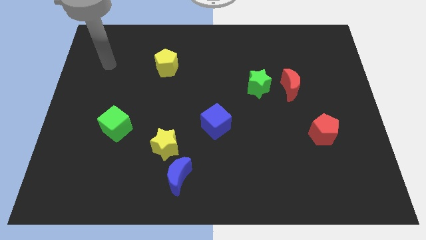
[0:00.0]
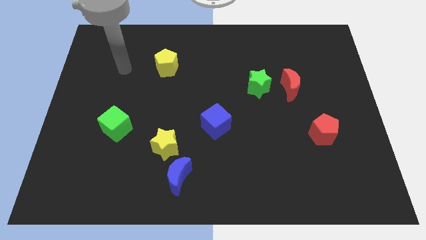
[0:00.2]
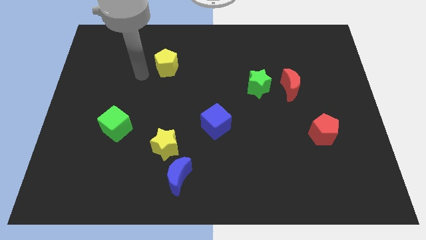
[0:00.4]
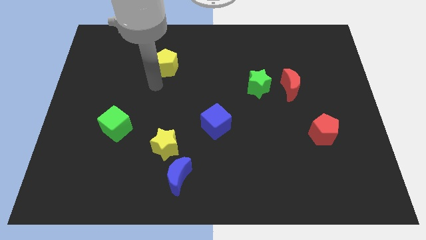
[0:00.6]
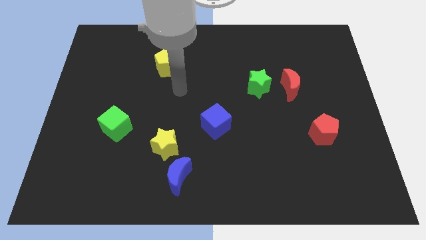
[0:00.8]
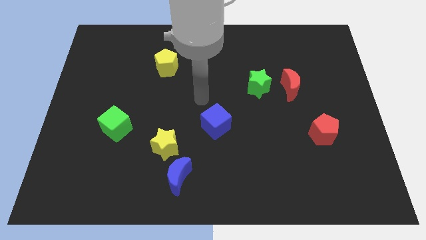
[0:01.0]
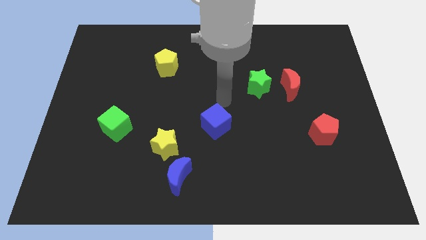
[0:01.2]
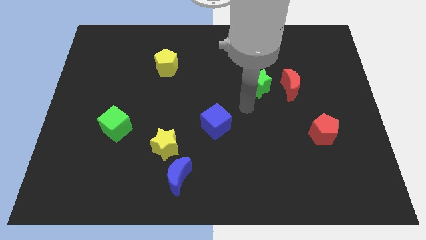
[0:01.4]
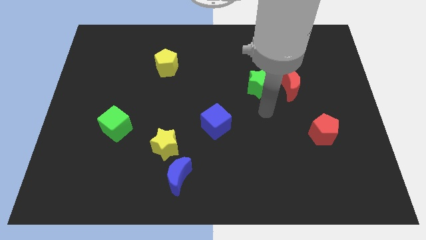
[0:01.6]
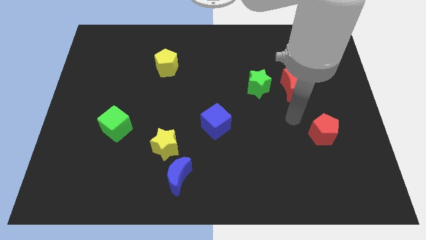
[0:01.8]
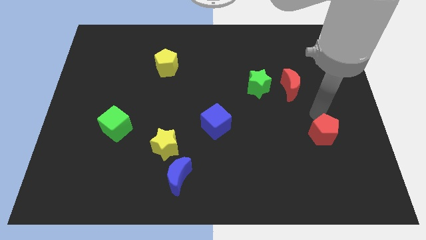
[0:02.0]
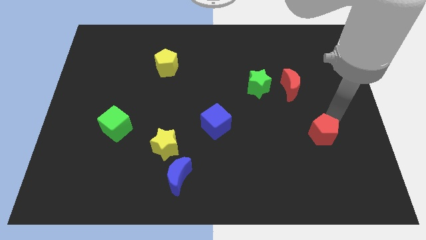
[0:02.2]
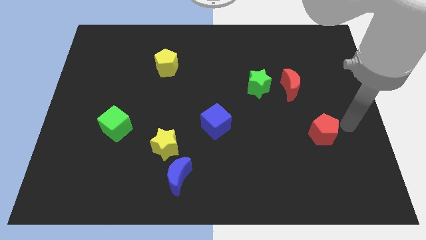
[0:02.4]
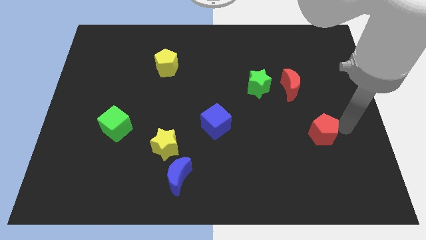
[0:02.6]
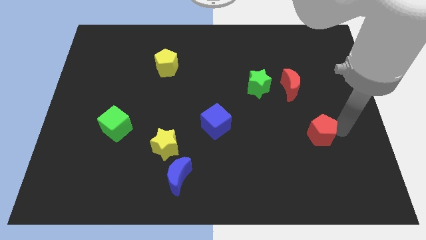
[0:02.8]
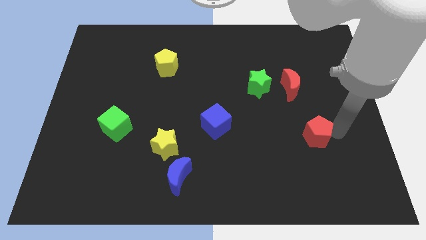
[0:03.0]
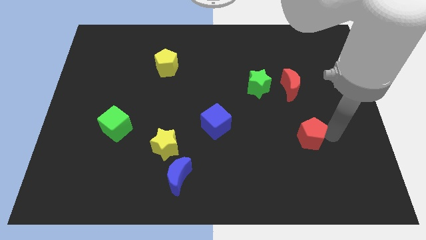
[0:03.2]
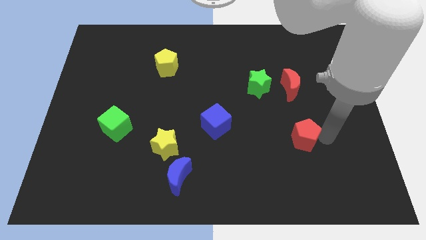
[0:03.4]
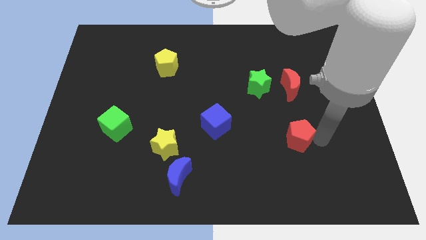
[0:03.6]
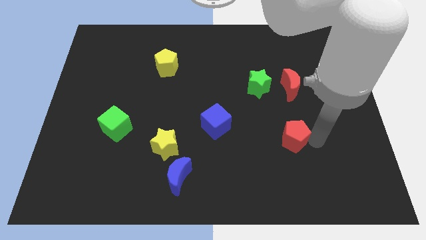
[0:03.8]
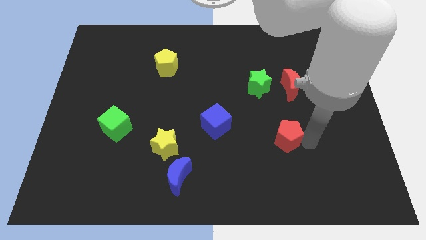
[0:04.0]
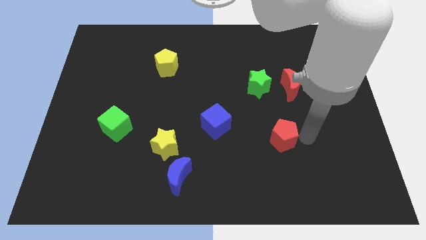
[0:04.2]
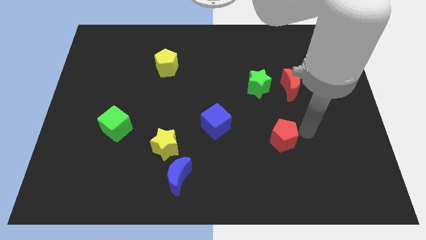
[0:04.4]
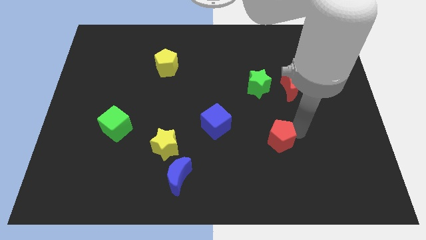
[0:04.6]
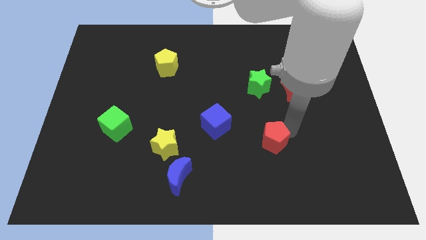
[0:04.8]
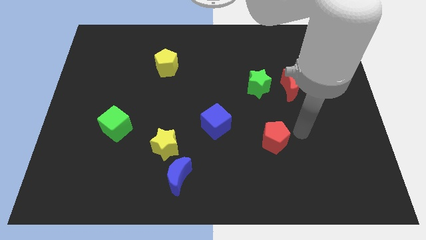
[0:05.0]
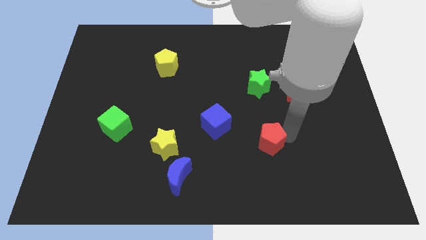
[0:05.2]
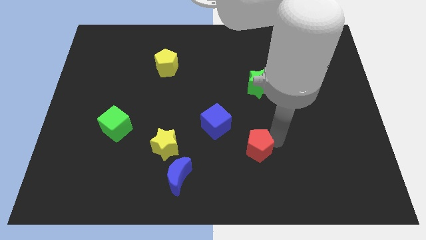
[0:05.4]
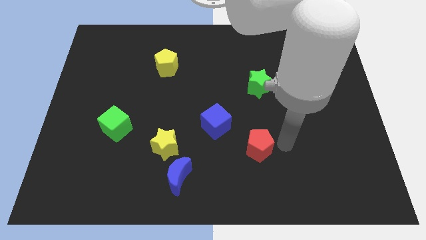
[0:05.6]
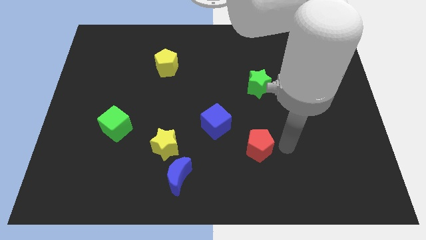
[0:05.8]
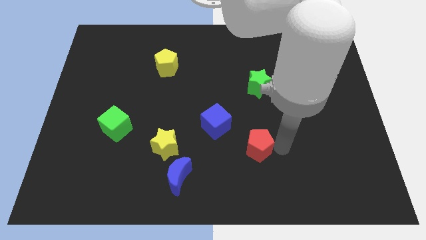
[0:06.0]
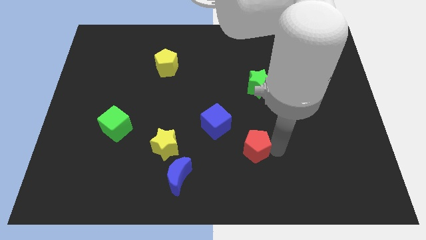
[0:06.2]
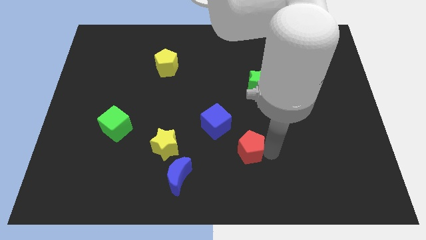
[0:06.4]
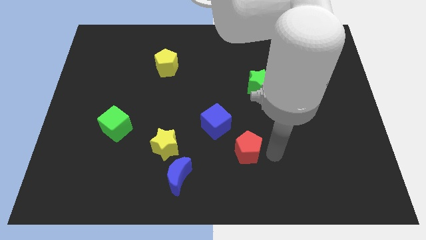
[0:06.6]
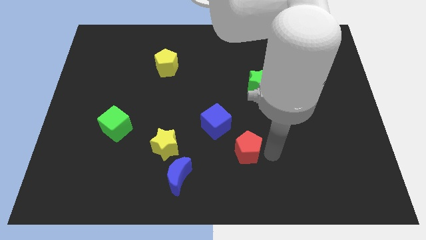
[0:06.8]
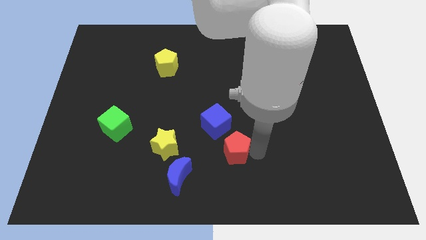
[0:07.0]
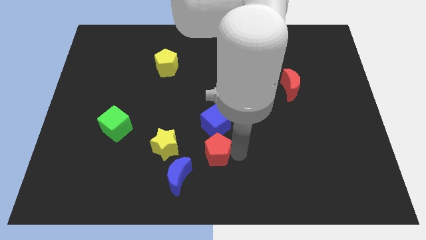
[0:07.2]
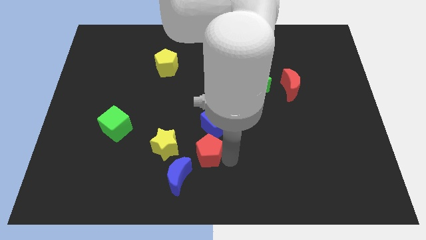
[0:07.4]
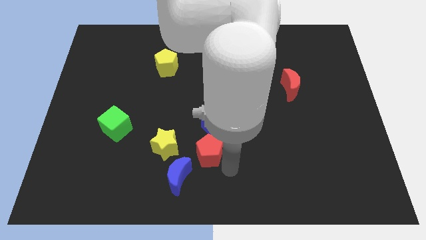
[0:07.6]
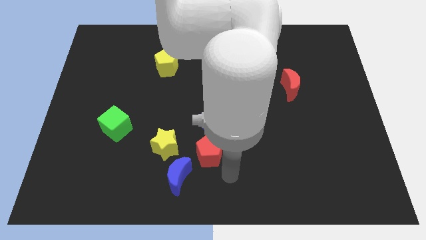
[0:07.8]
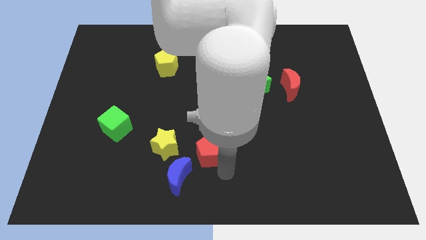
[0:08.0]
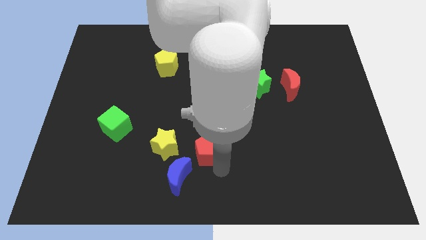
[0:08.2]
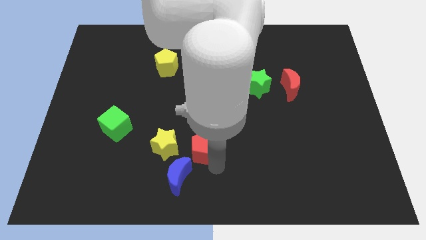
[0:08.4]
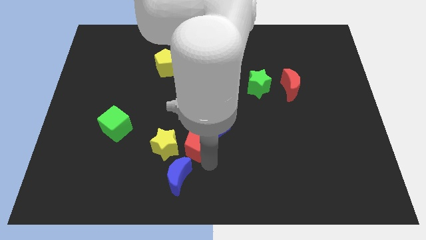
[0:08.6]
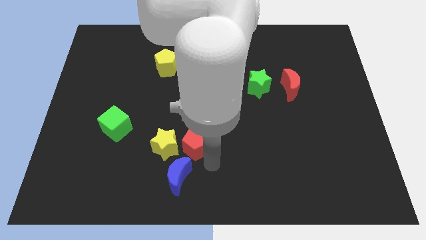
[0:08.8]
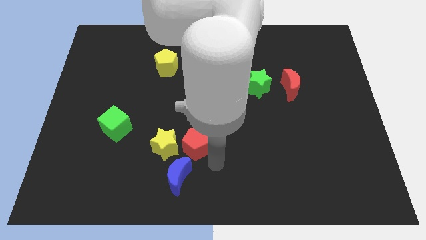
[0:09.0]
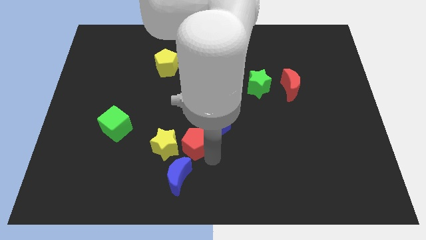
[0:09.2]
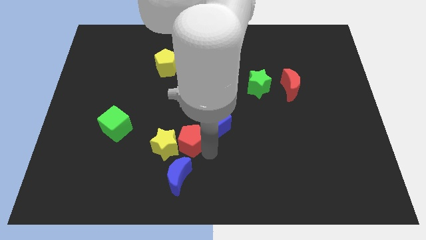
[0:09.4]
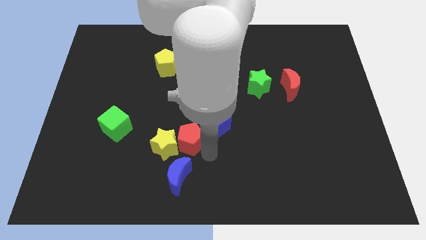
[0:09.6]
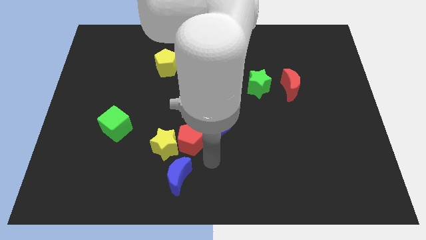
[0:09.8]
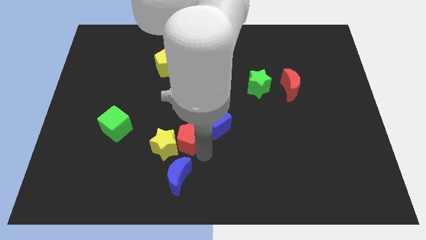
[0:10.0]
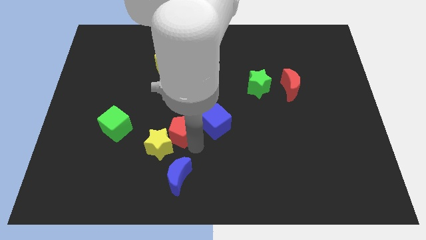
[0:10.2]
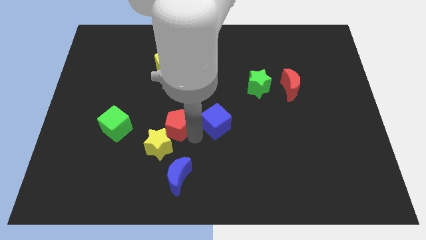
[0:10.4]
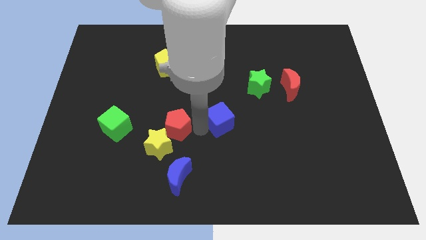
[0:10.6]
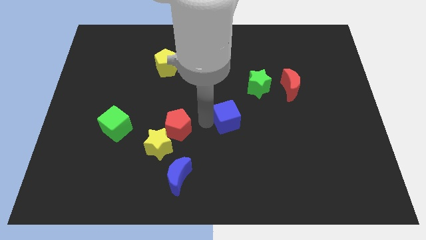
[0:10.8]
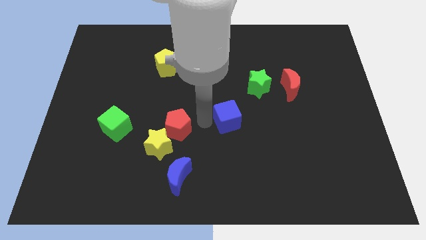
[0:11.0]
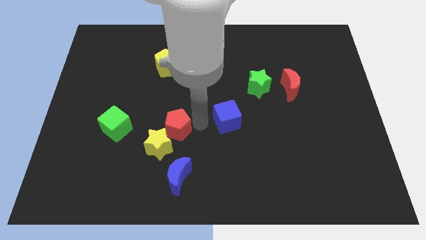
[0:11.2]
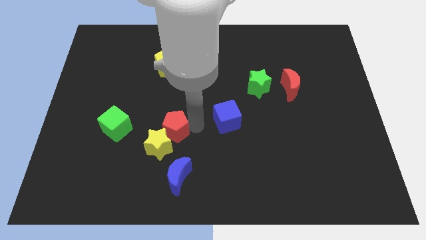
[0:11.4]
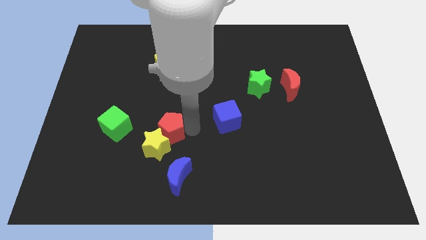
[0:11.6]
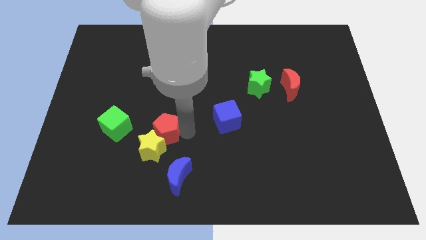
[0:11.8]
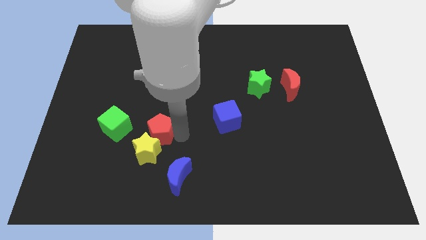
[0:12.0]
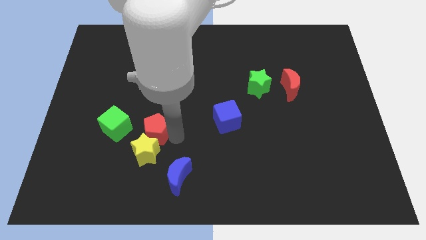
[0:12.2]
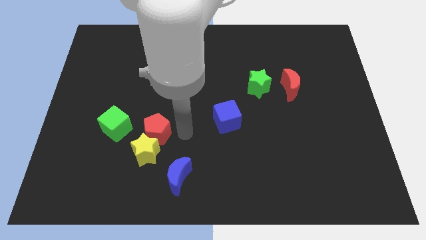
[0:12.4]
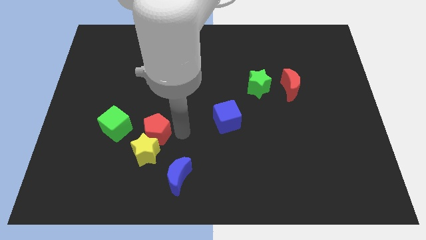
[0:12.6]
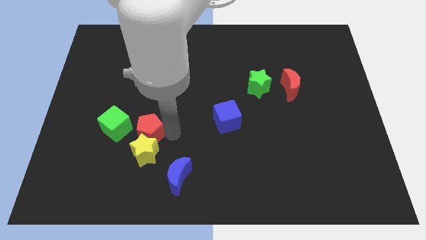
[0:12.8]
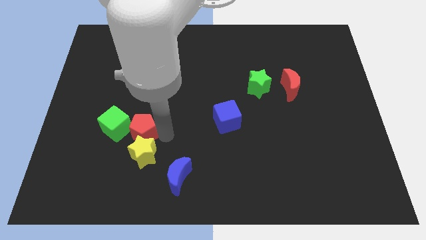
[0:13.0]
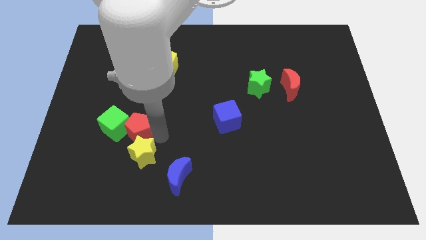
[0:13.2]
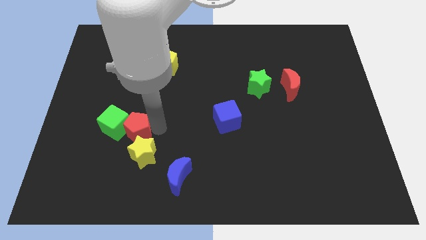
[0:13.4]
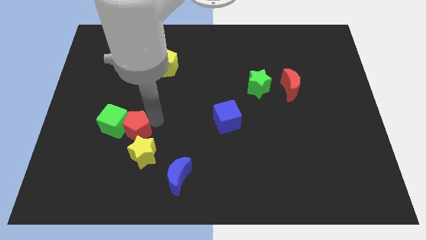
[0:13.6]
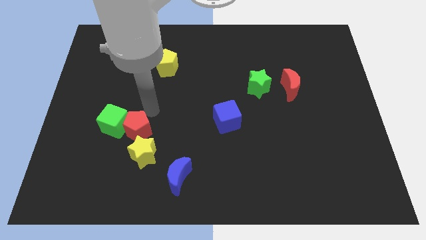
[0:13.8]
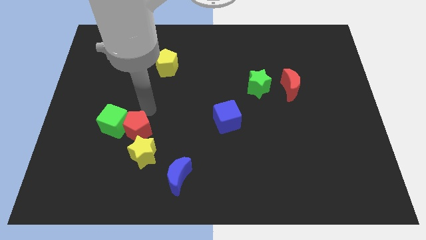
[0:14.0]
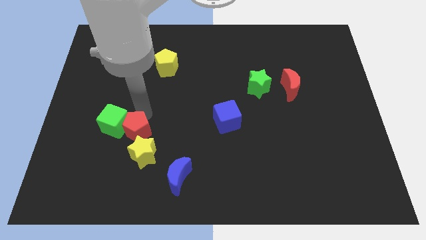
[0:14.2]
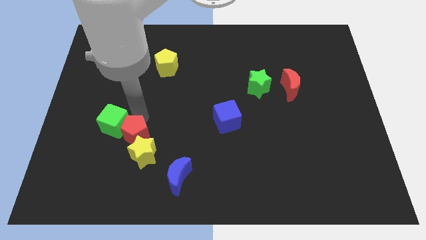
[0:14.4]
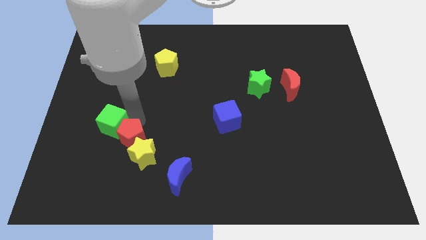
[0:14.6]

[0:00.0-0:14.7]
slide the red pentagon below the green cube

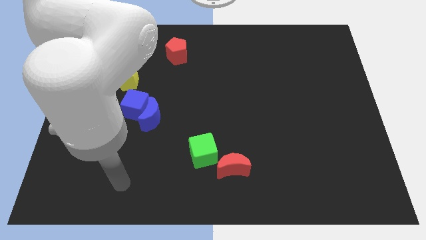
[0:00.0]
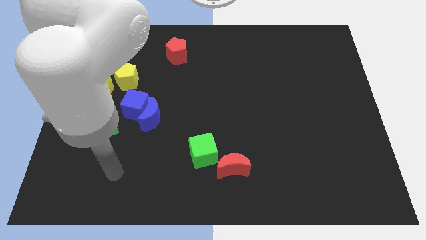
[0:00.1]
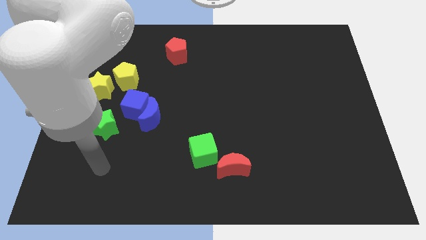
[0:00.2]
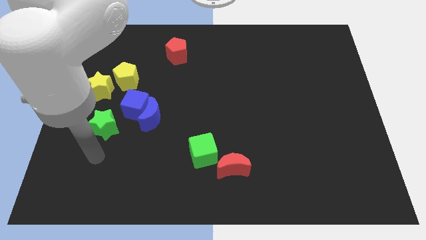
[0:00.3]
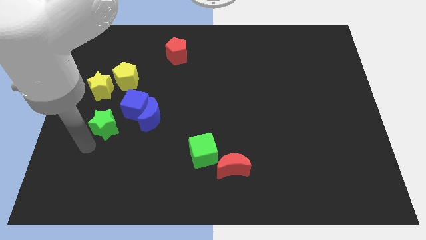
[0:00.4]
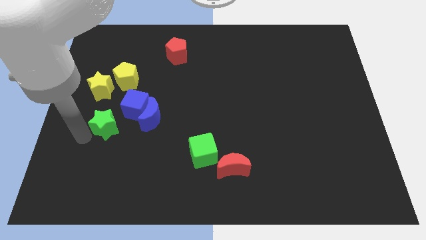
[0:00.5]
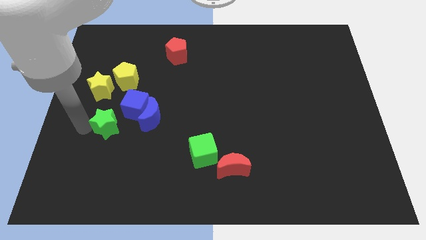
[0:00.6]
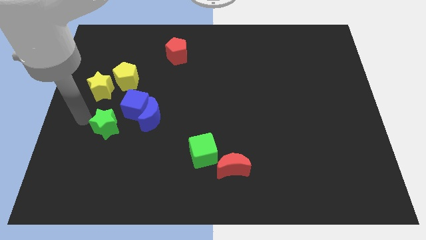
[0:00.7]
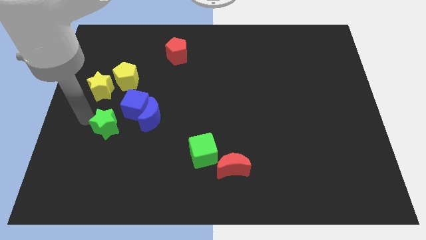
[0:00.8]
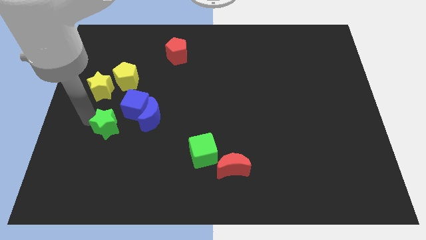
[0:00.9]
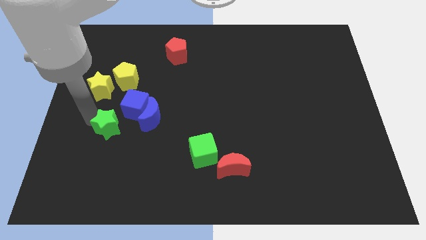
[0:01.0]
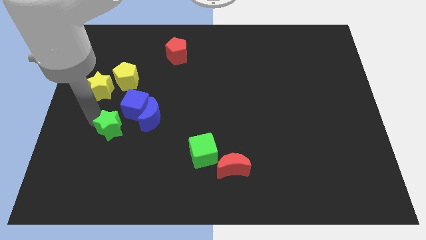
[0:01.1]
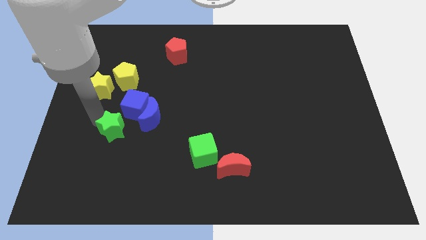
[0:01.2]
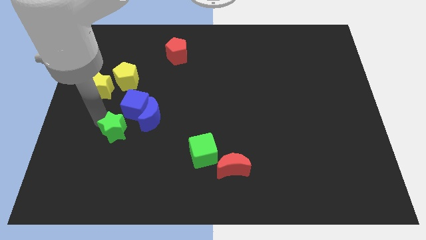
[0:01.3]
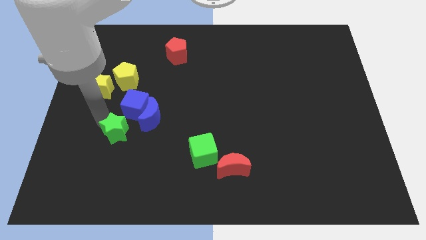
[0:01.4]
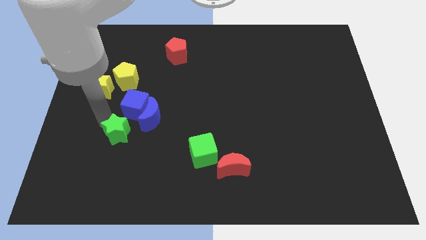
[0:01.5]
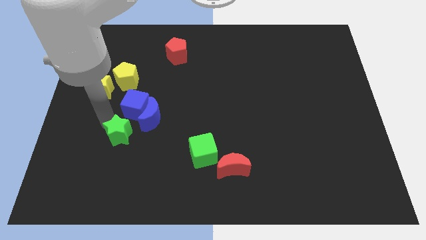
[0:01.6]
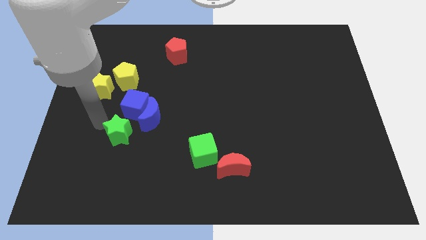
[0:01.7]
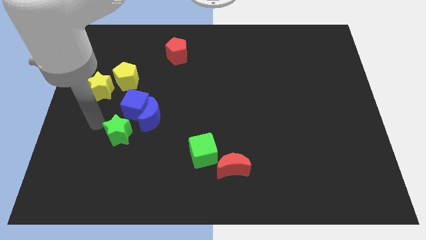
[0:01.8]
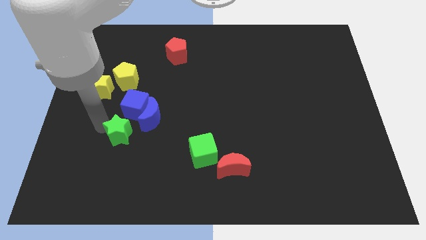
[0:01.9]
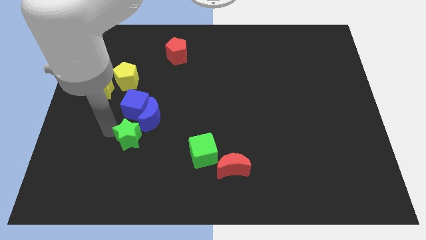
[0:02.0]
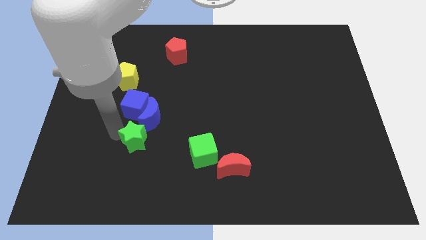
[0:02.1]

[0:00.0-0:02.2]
push the green star to the left of the green cube
